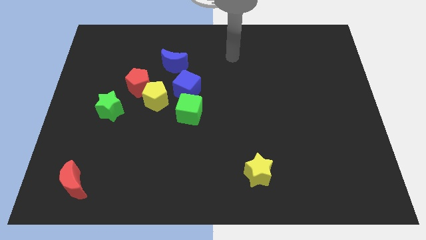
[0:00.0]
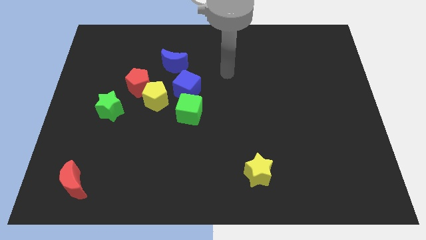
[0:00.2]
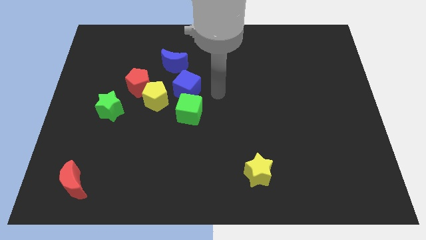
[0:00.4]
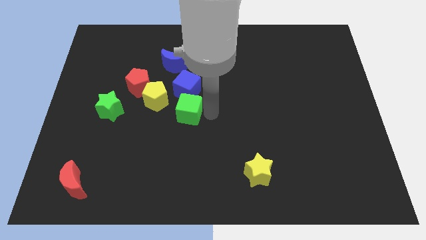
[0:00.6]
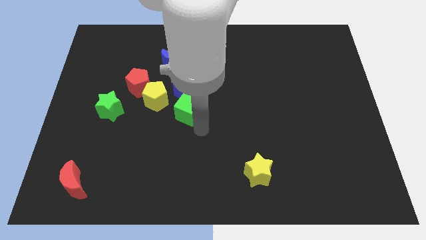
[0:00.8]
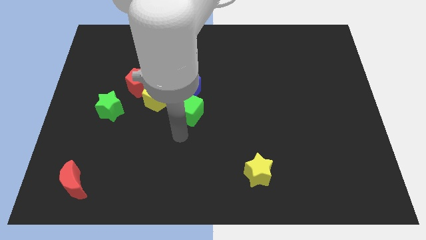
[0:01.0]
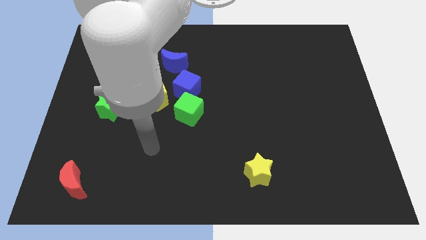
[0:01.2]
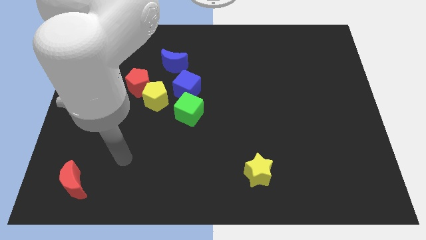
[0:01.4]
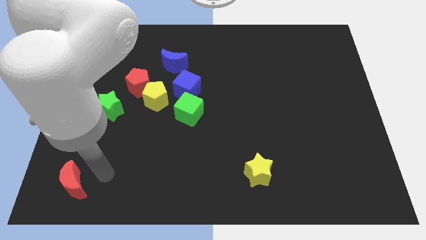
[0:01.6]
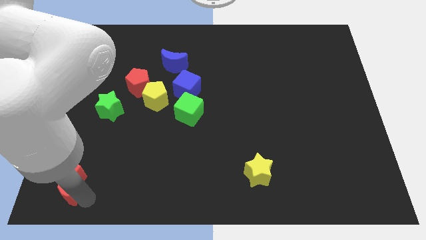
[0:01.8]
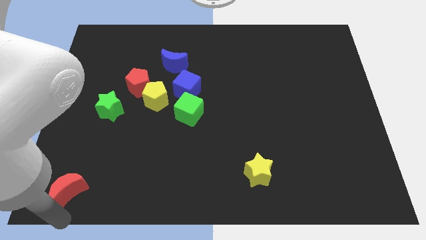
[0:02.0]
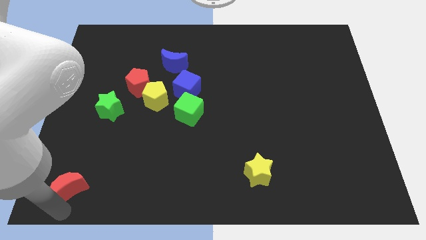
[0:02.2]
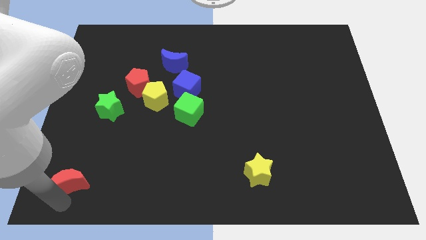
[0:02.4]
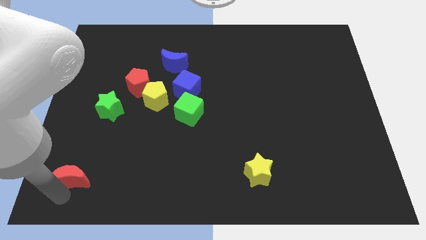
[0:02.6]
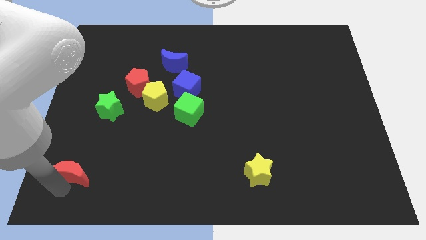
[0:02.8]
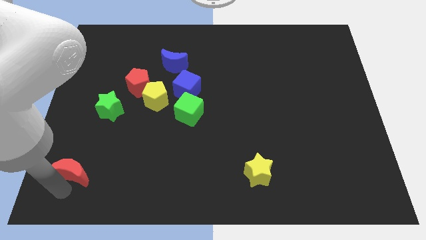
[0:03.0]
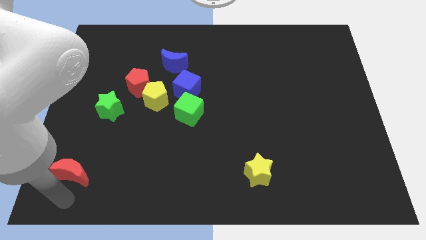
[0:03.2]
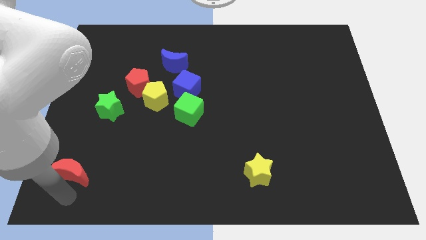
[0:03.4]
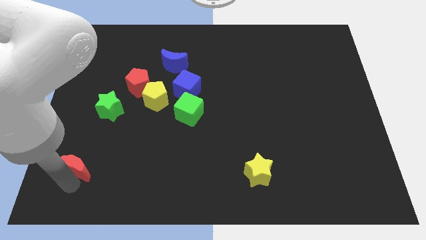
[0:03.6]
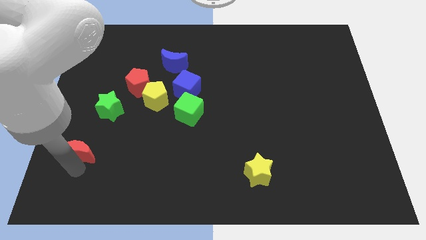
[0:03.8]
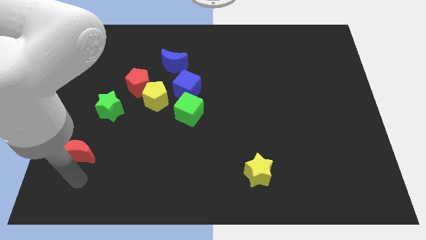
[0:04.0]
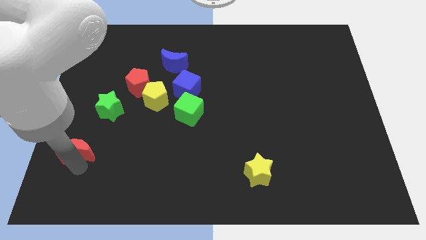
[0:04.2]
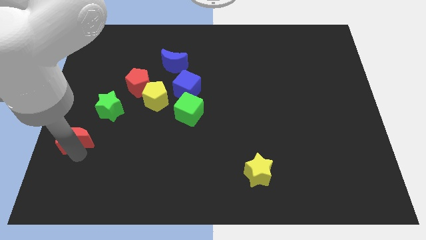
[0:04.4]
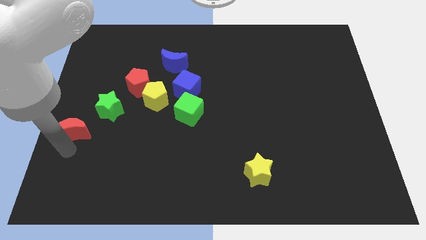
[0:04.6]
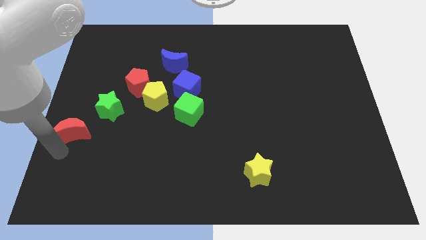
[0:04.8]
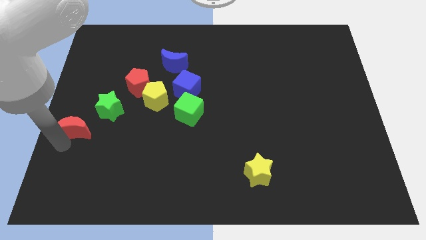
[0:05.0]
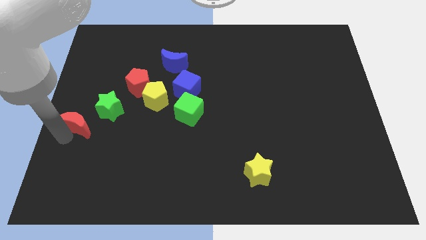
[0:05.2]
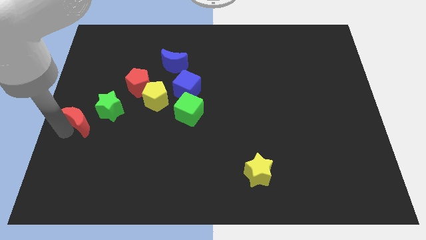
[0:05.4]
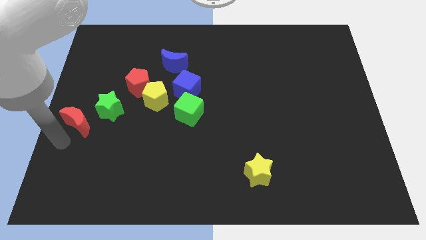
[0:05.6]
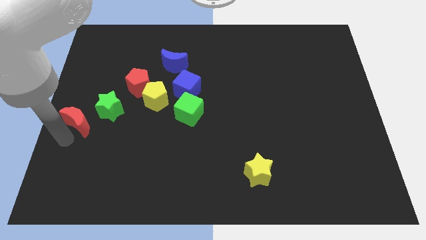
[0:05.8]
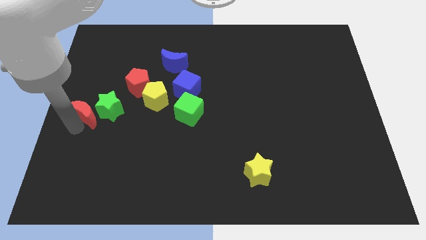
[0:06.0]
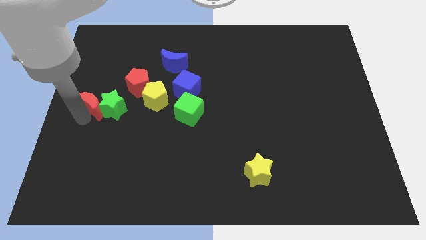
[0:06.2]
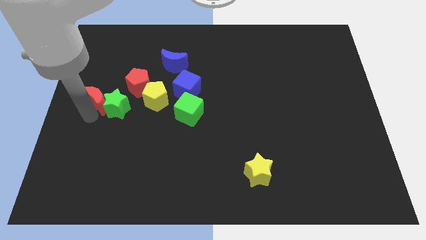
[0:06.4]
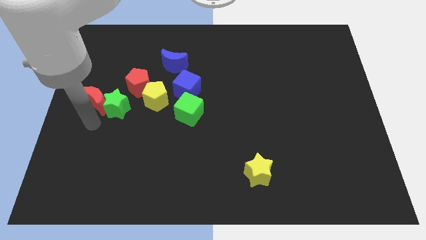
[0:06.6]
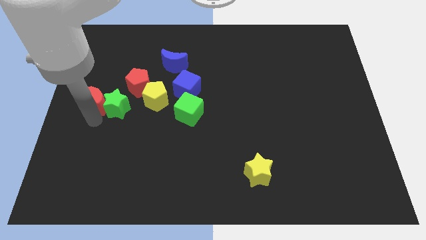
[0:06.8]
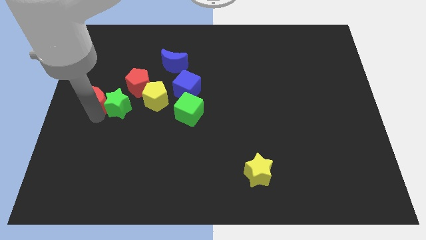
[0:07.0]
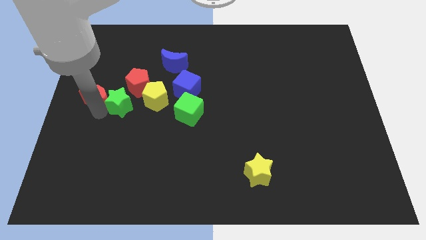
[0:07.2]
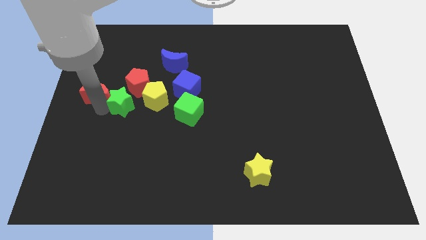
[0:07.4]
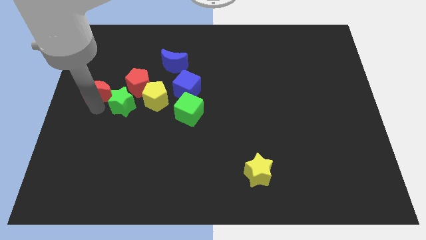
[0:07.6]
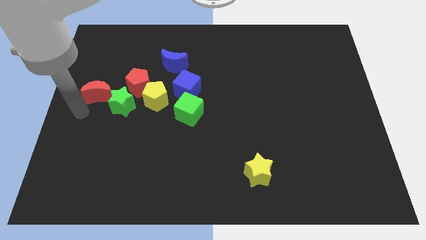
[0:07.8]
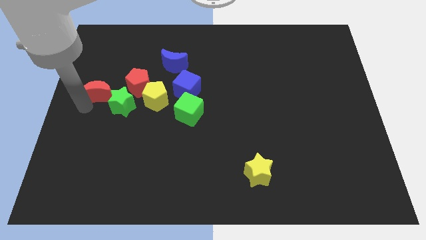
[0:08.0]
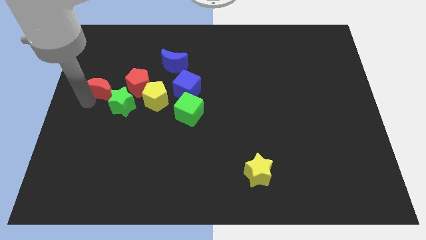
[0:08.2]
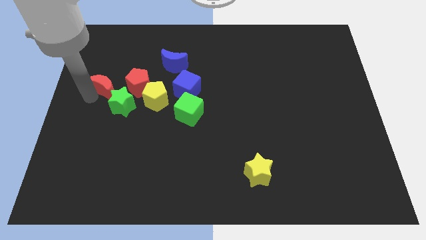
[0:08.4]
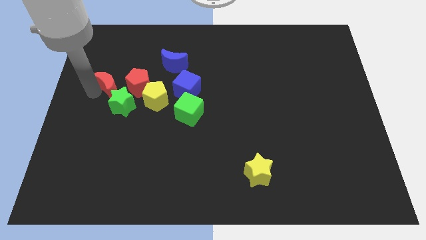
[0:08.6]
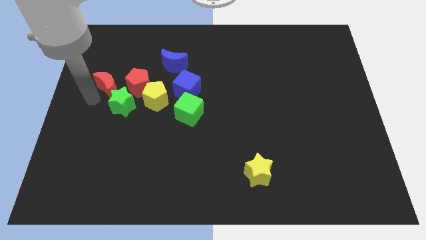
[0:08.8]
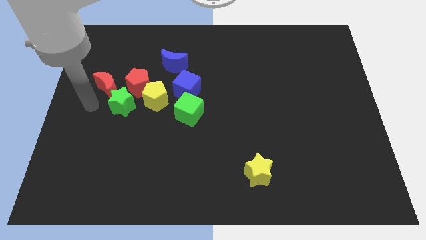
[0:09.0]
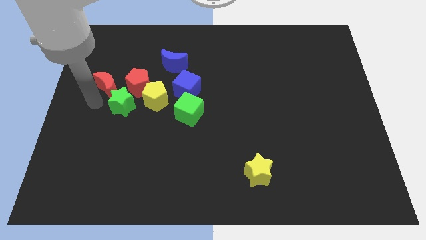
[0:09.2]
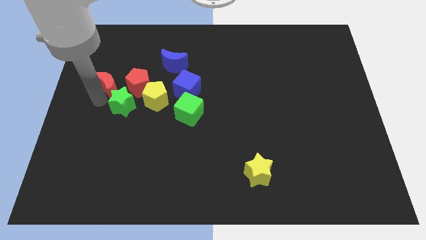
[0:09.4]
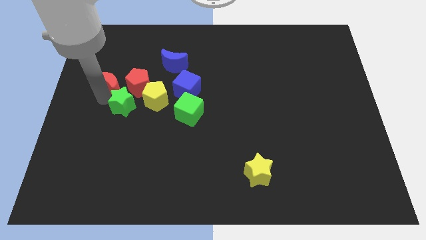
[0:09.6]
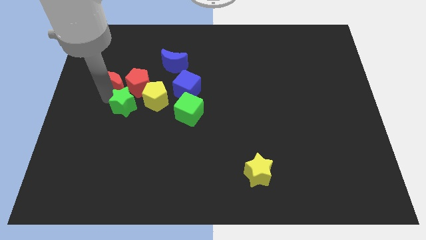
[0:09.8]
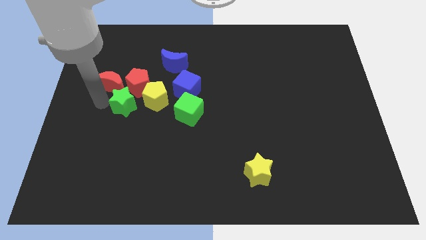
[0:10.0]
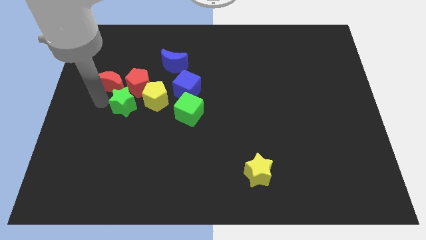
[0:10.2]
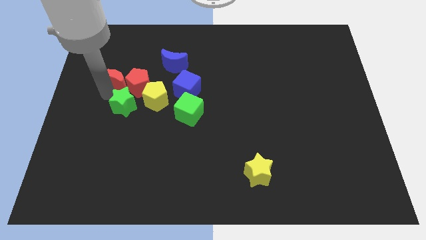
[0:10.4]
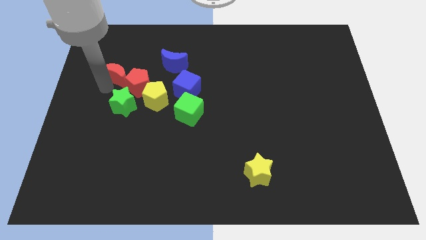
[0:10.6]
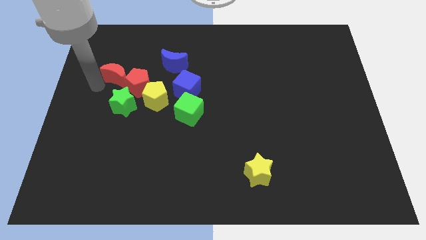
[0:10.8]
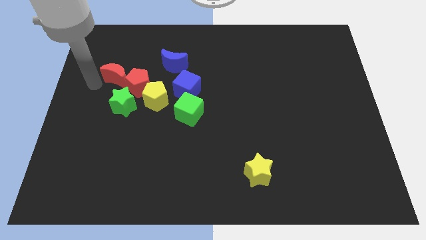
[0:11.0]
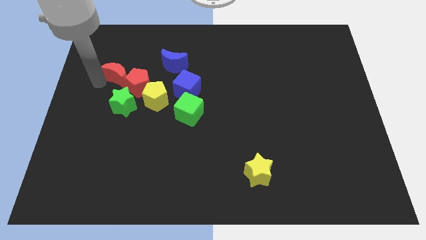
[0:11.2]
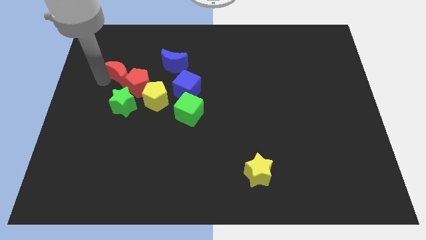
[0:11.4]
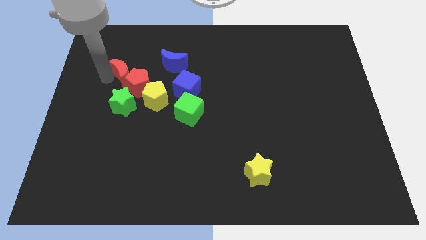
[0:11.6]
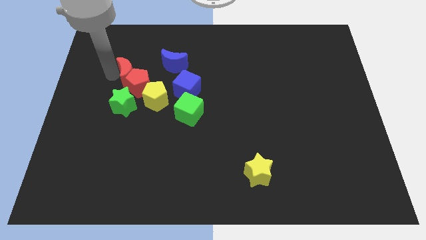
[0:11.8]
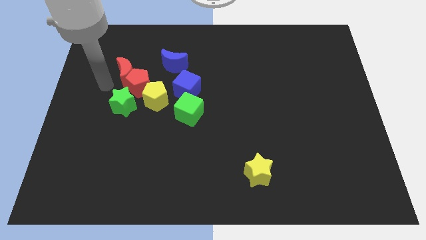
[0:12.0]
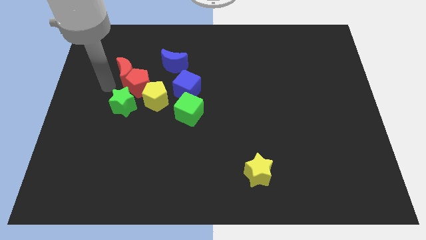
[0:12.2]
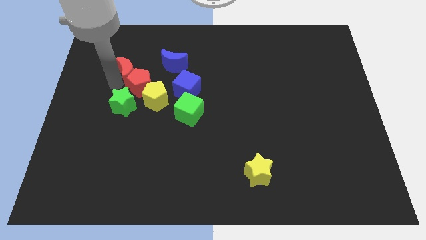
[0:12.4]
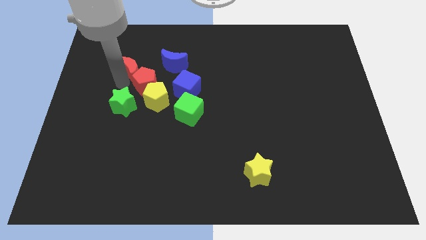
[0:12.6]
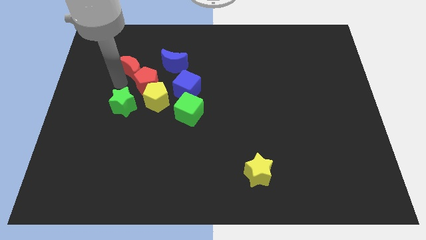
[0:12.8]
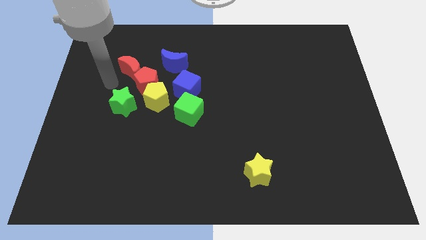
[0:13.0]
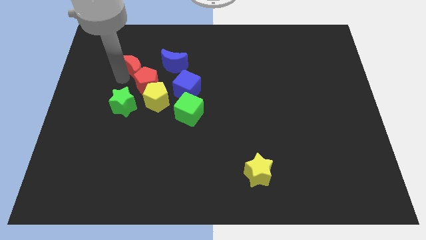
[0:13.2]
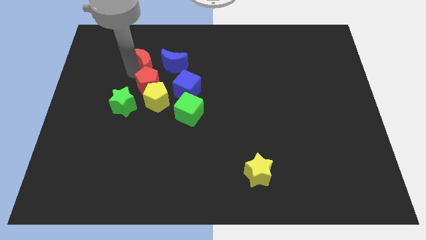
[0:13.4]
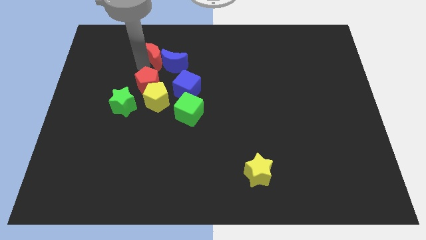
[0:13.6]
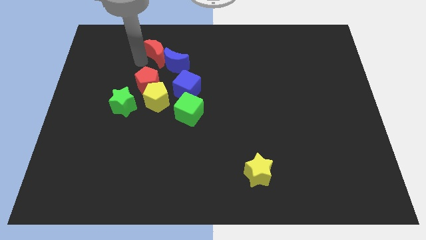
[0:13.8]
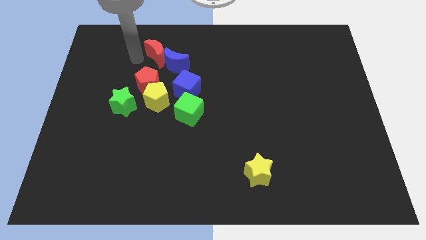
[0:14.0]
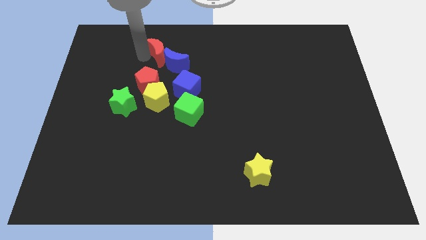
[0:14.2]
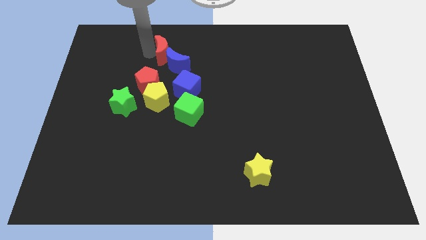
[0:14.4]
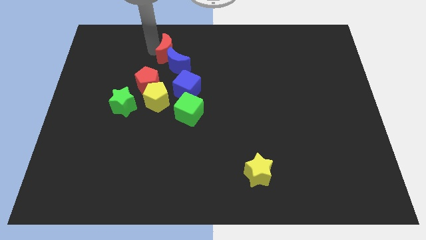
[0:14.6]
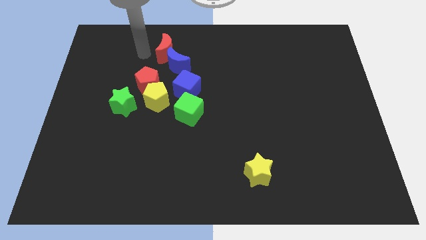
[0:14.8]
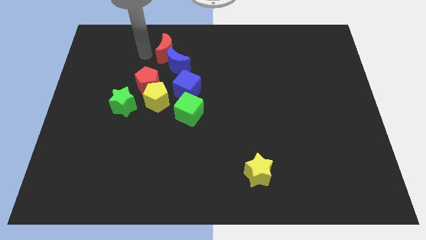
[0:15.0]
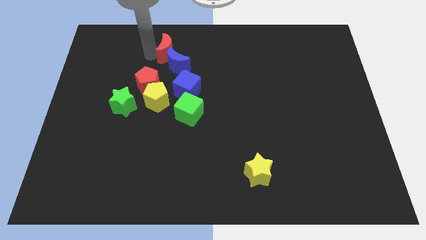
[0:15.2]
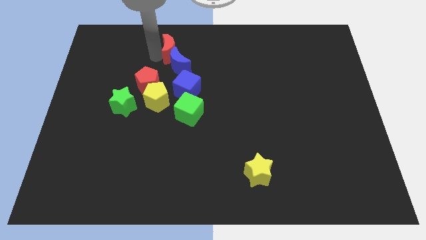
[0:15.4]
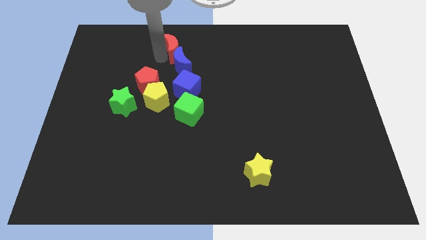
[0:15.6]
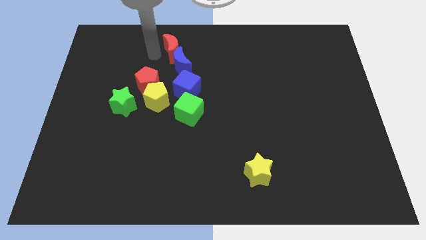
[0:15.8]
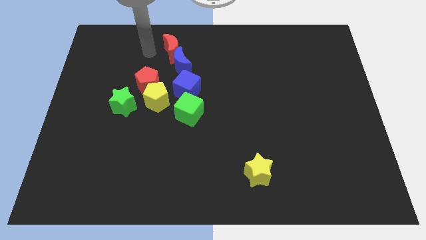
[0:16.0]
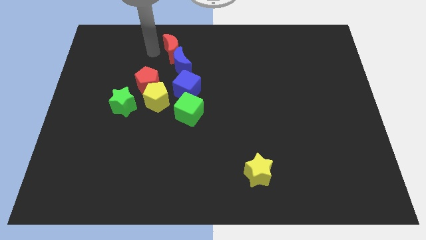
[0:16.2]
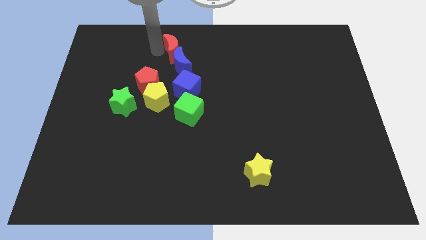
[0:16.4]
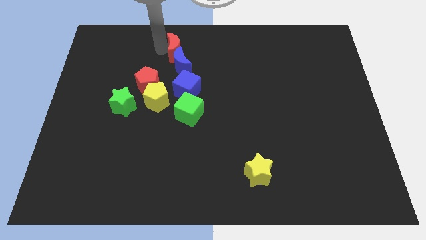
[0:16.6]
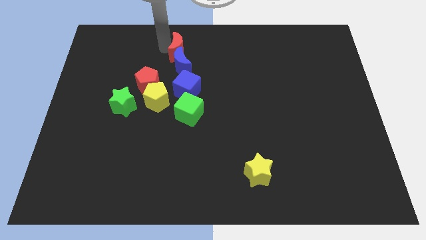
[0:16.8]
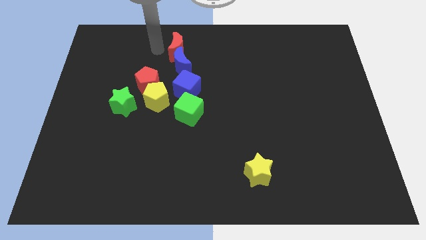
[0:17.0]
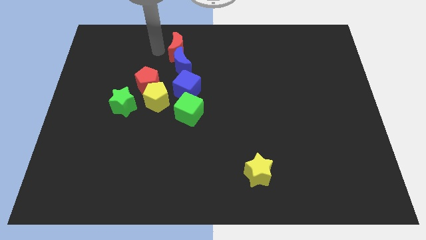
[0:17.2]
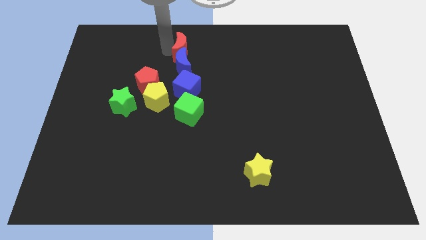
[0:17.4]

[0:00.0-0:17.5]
put the red moon to the top
